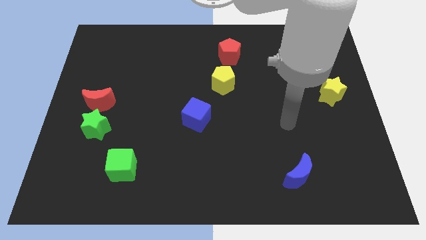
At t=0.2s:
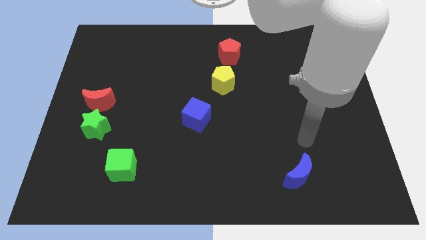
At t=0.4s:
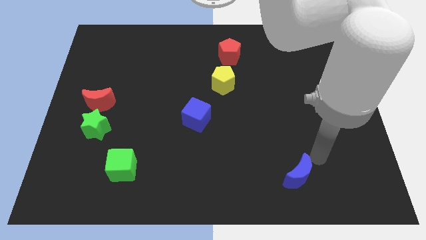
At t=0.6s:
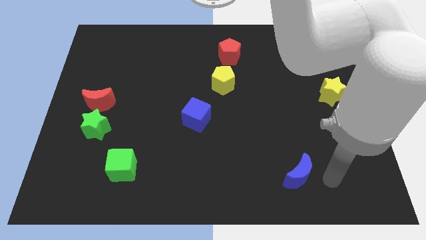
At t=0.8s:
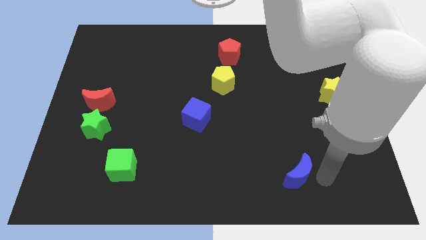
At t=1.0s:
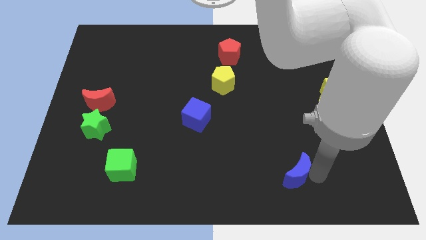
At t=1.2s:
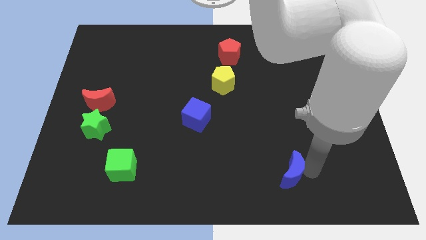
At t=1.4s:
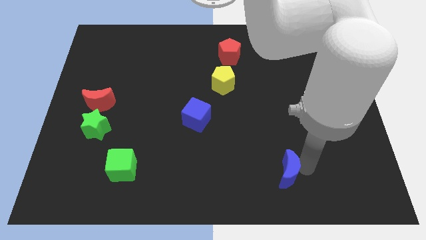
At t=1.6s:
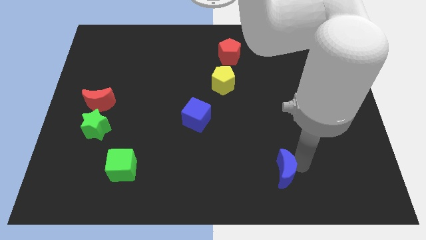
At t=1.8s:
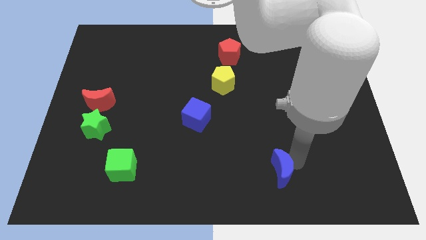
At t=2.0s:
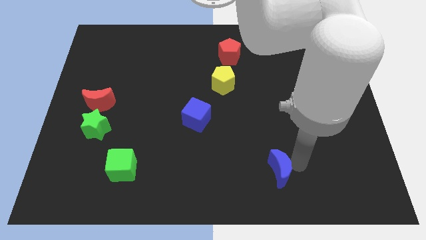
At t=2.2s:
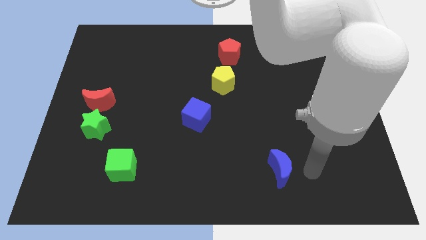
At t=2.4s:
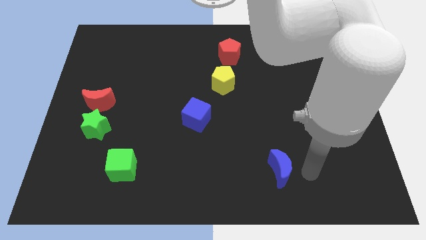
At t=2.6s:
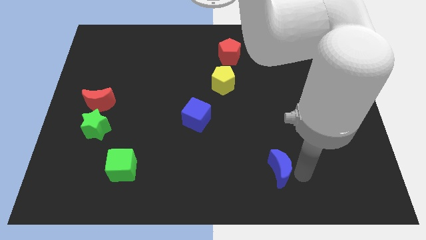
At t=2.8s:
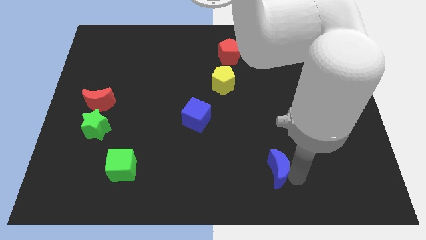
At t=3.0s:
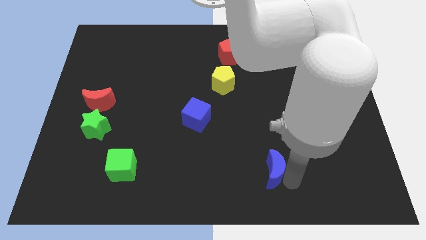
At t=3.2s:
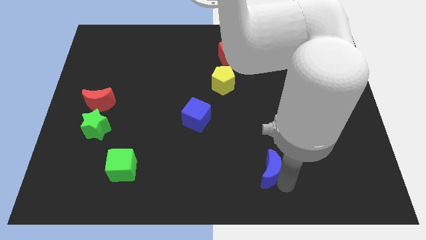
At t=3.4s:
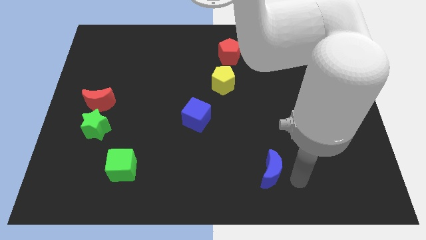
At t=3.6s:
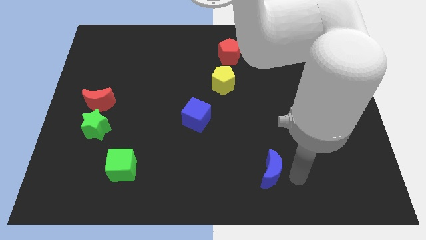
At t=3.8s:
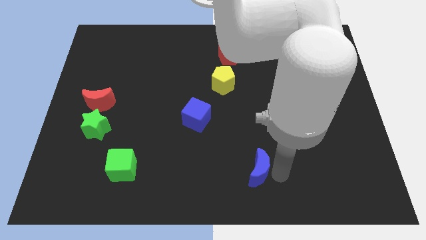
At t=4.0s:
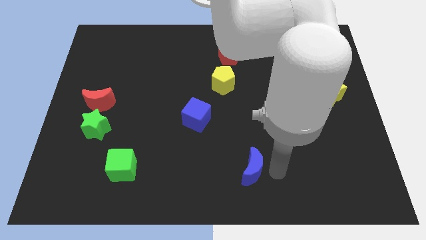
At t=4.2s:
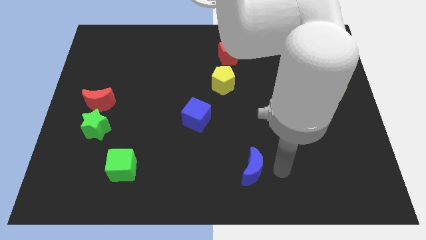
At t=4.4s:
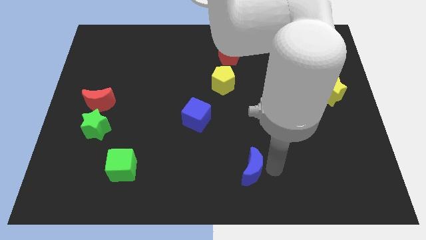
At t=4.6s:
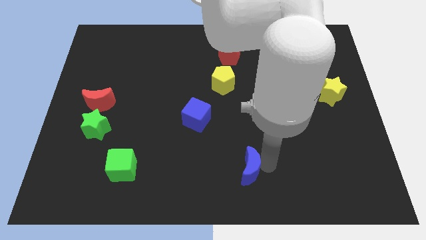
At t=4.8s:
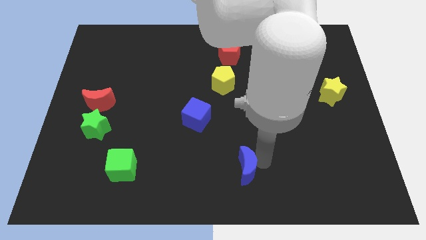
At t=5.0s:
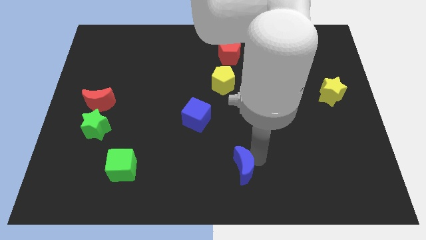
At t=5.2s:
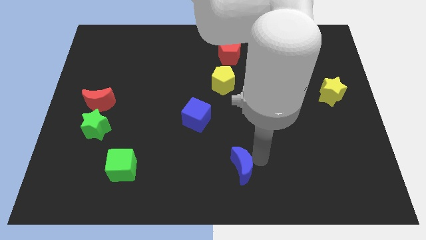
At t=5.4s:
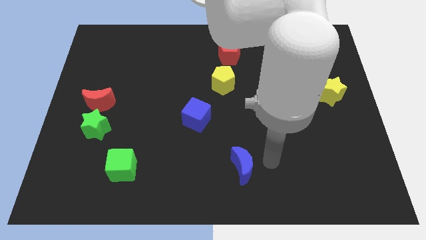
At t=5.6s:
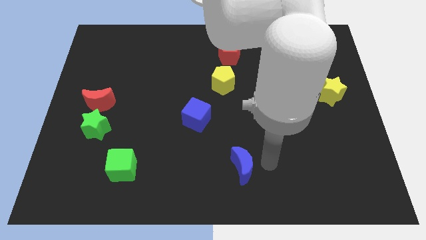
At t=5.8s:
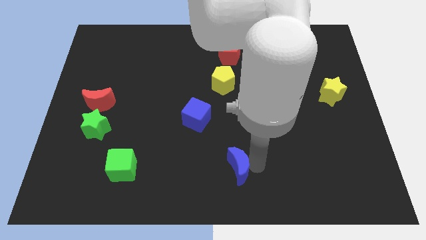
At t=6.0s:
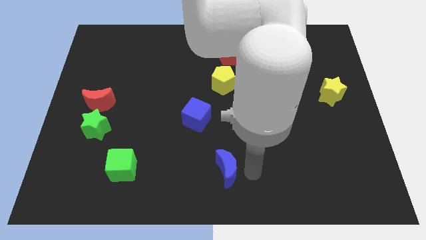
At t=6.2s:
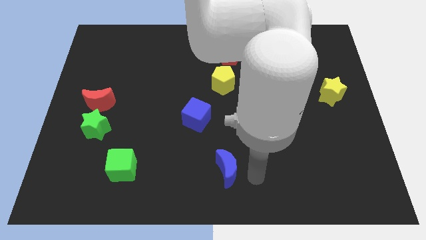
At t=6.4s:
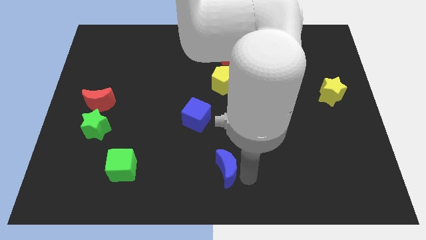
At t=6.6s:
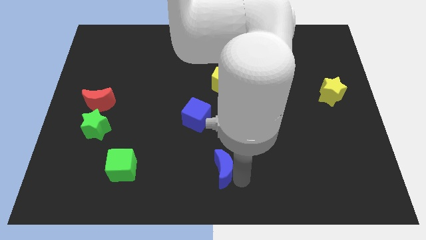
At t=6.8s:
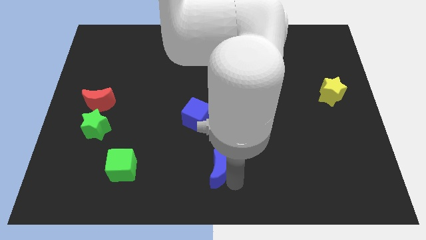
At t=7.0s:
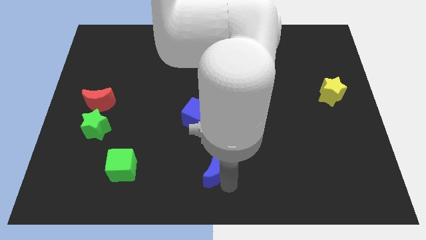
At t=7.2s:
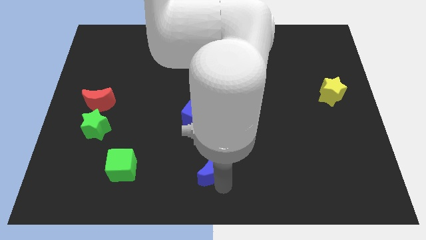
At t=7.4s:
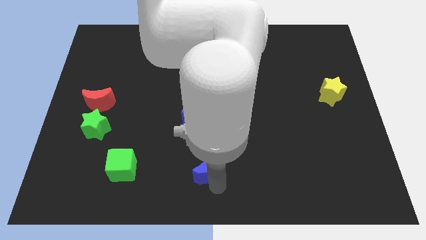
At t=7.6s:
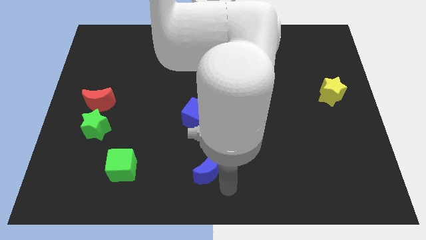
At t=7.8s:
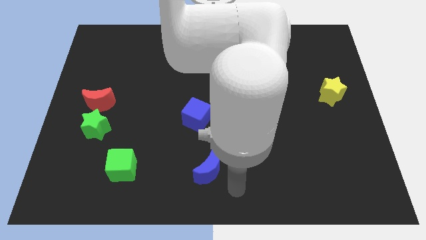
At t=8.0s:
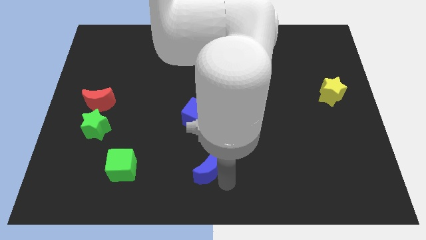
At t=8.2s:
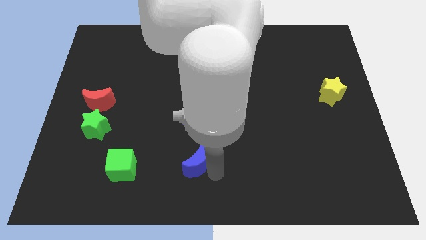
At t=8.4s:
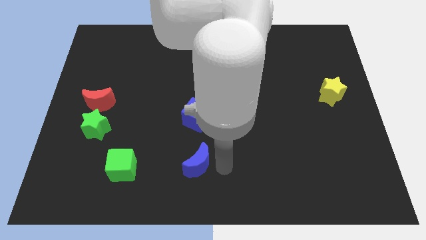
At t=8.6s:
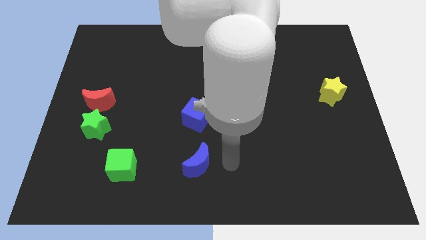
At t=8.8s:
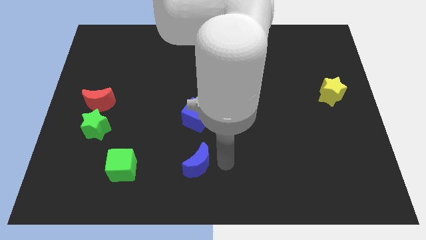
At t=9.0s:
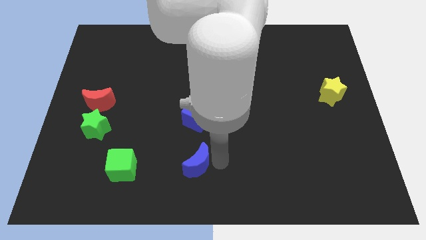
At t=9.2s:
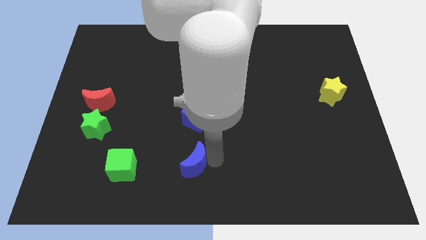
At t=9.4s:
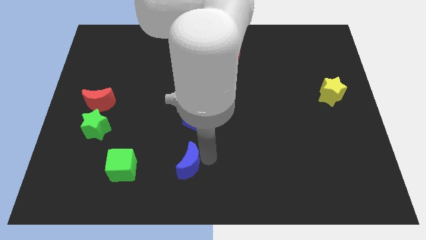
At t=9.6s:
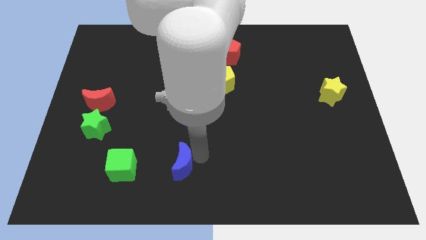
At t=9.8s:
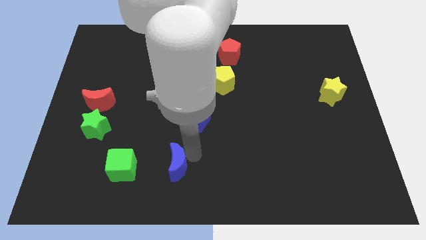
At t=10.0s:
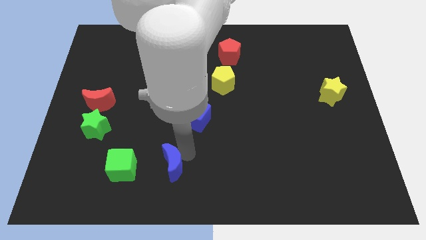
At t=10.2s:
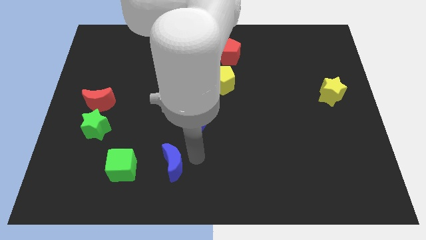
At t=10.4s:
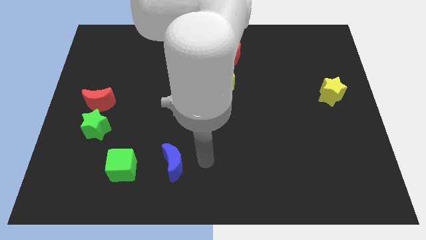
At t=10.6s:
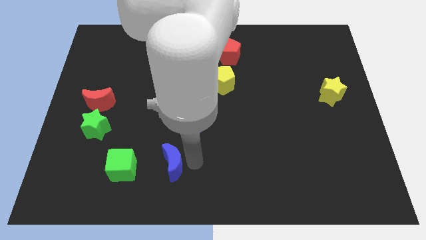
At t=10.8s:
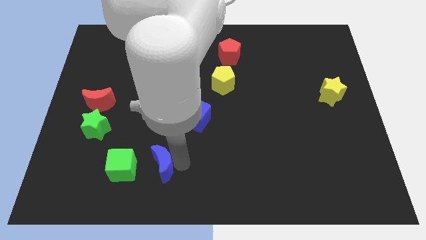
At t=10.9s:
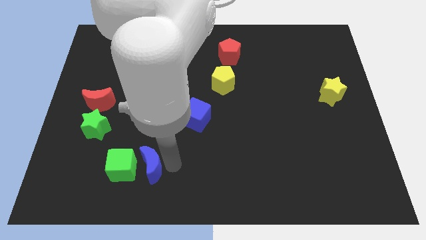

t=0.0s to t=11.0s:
push the blue moon towards the green cube

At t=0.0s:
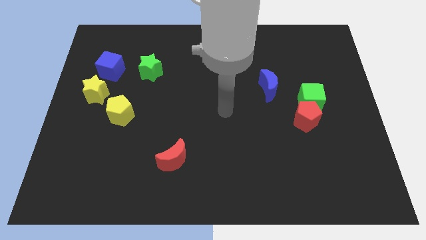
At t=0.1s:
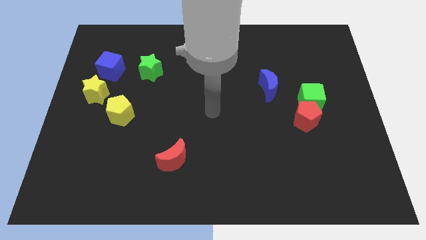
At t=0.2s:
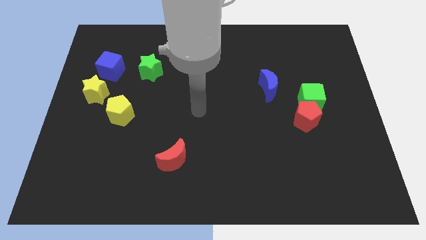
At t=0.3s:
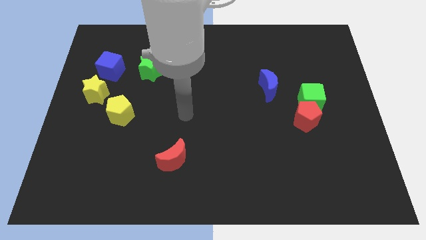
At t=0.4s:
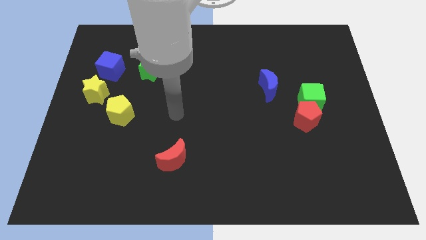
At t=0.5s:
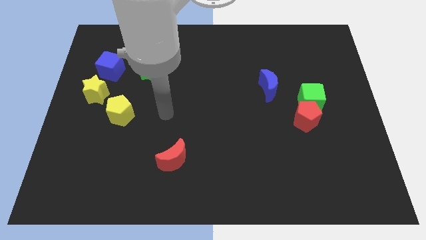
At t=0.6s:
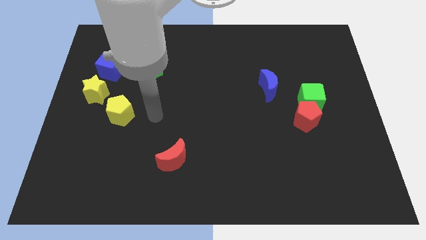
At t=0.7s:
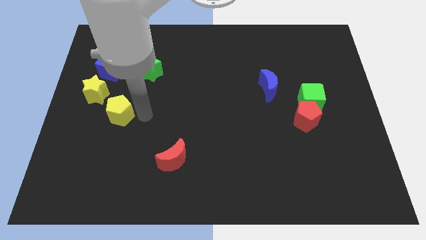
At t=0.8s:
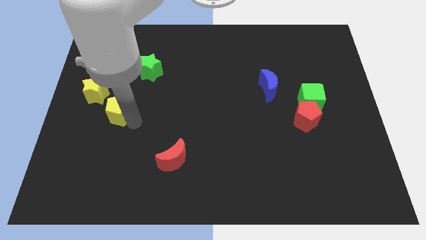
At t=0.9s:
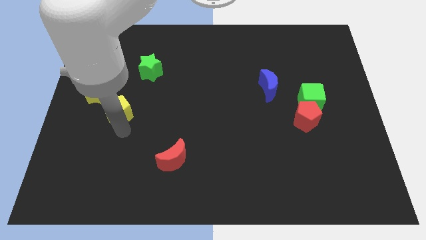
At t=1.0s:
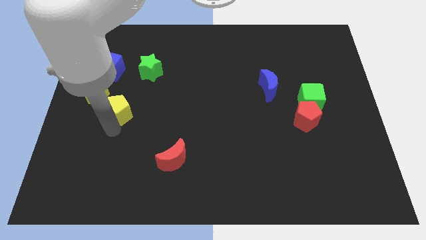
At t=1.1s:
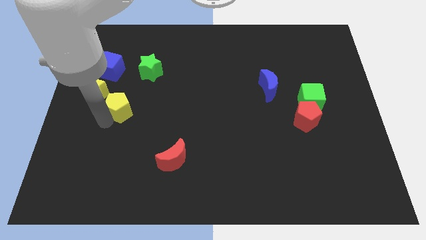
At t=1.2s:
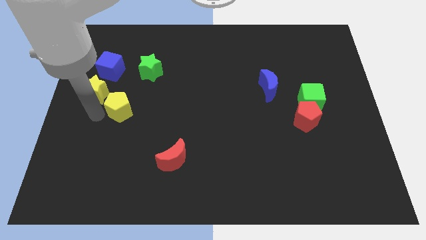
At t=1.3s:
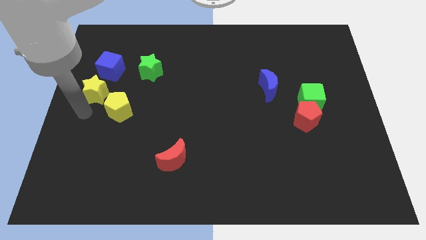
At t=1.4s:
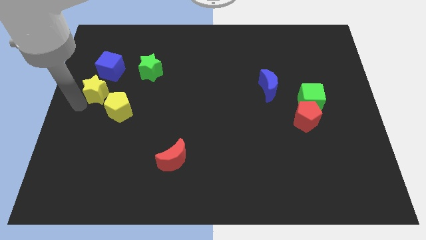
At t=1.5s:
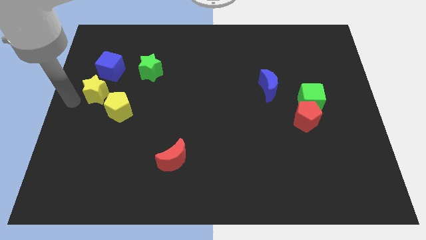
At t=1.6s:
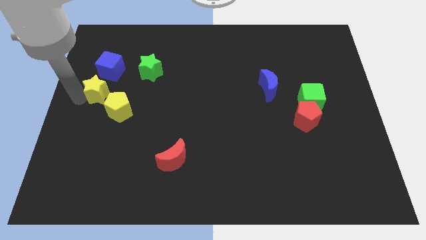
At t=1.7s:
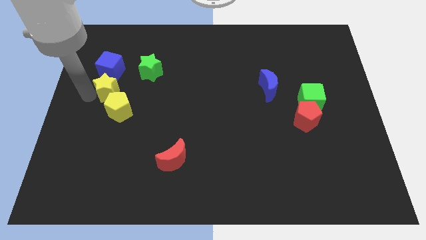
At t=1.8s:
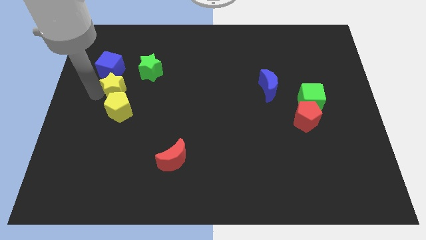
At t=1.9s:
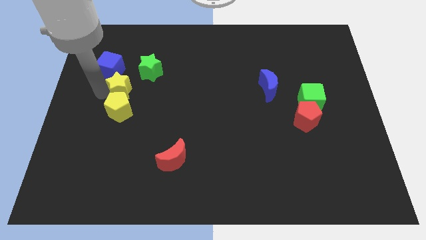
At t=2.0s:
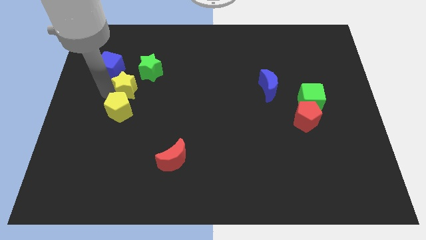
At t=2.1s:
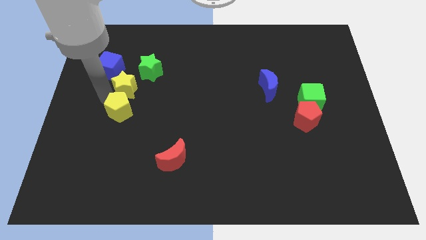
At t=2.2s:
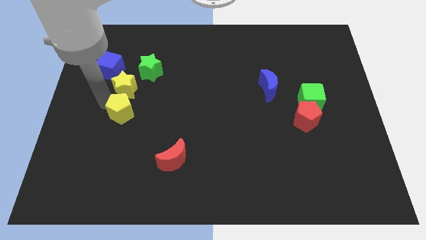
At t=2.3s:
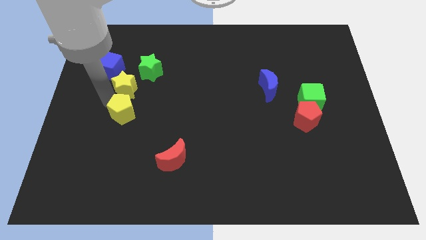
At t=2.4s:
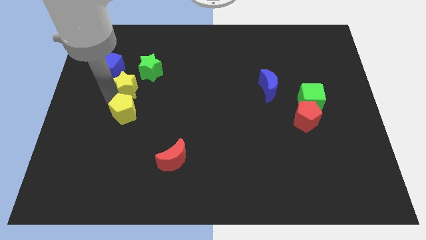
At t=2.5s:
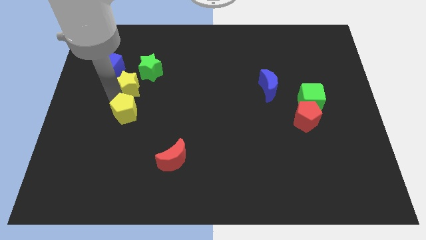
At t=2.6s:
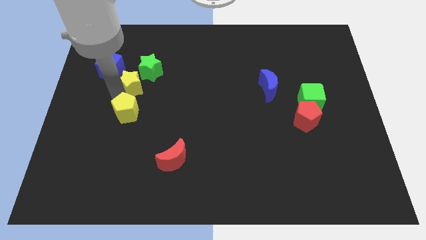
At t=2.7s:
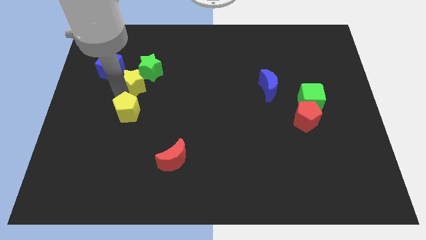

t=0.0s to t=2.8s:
put the yellow star next to the green star
